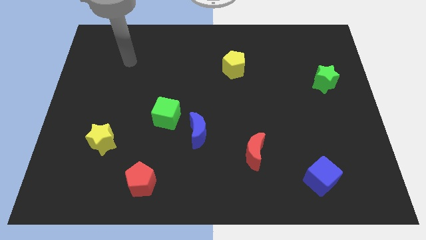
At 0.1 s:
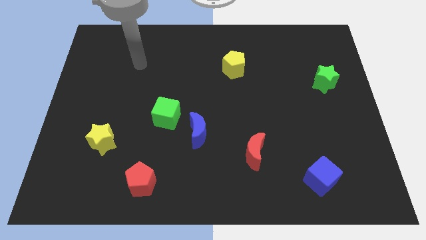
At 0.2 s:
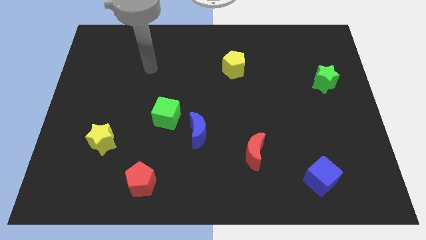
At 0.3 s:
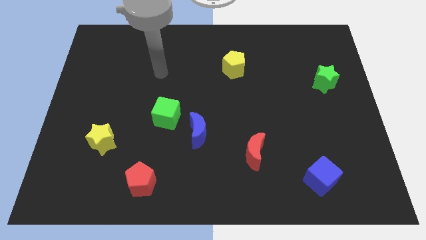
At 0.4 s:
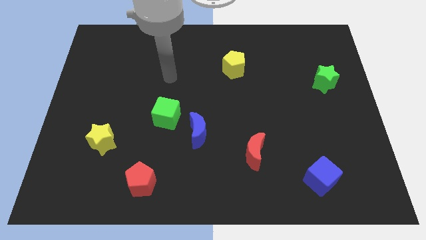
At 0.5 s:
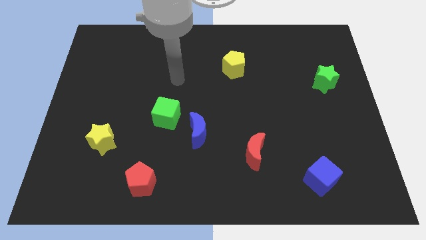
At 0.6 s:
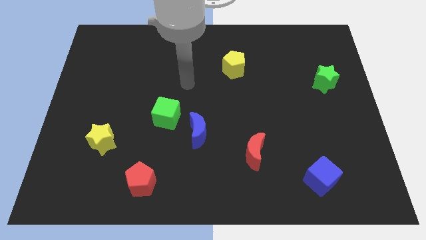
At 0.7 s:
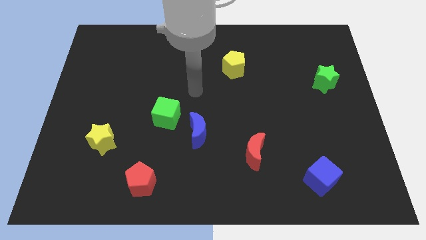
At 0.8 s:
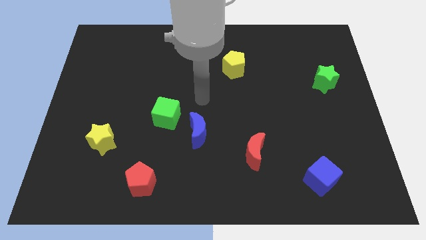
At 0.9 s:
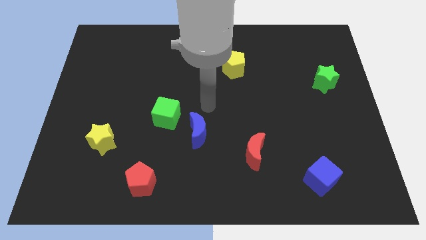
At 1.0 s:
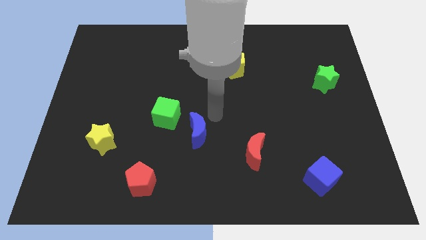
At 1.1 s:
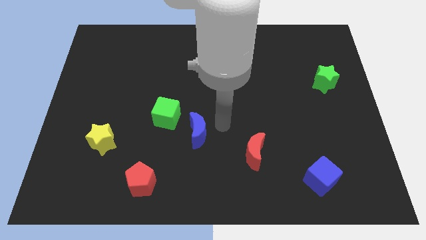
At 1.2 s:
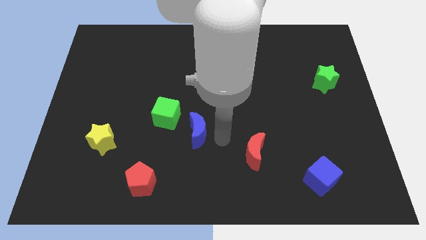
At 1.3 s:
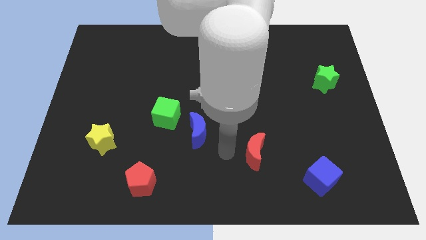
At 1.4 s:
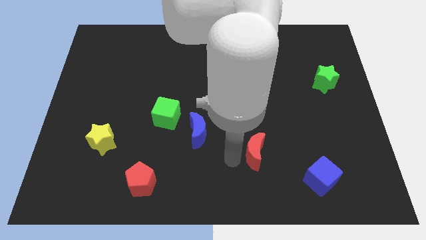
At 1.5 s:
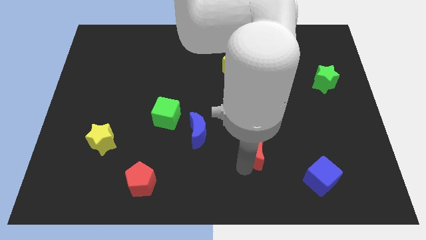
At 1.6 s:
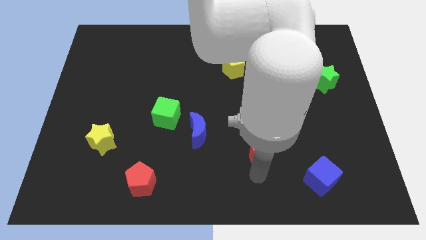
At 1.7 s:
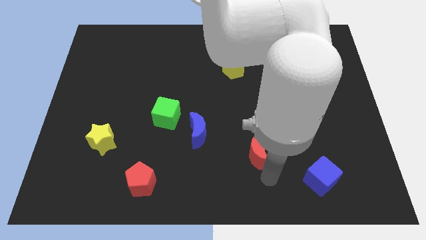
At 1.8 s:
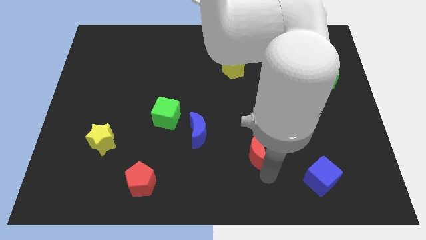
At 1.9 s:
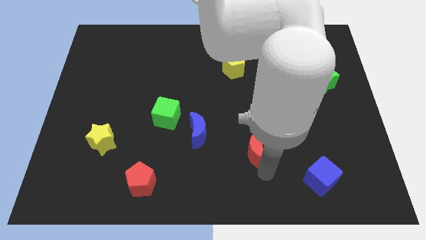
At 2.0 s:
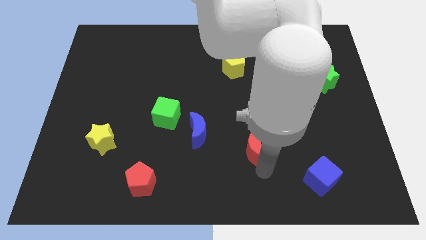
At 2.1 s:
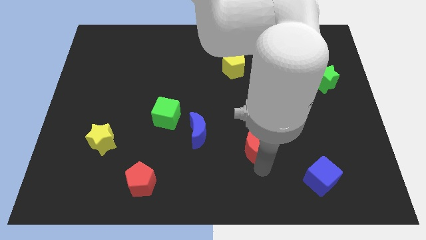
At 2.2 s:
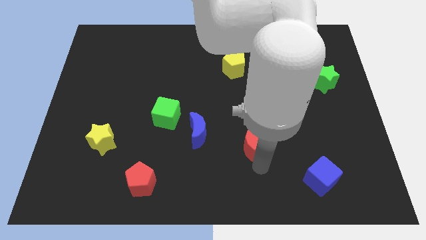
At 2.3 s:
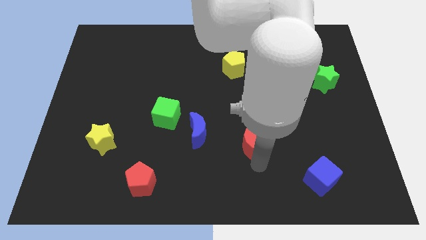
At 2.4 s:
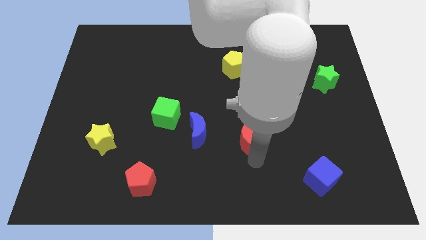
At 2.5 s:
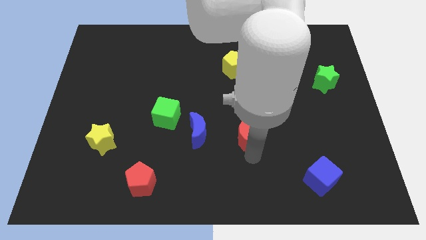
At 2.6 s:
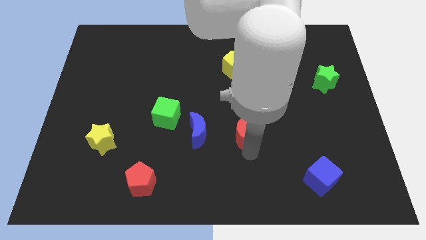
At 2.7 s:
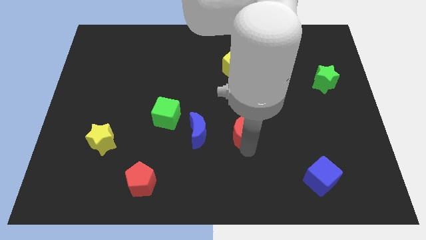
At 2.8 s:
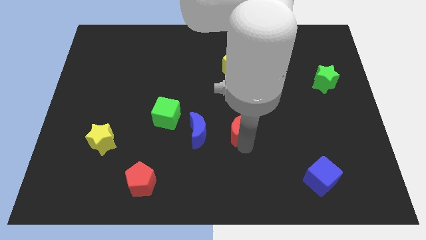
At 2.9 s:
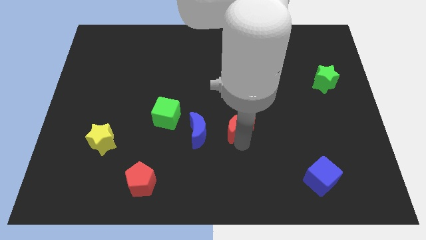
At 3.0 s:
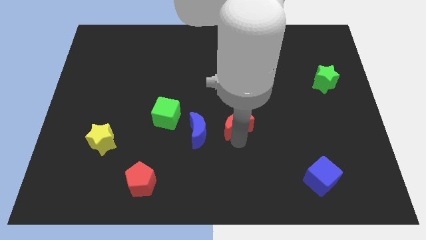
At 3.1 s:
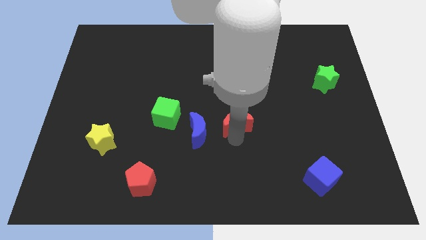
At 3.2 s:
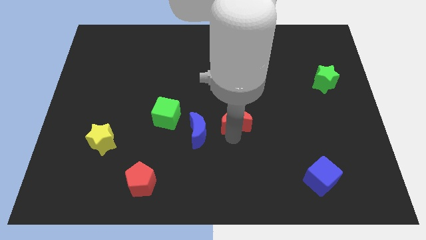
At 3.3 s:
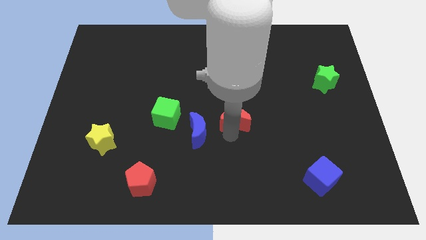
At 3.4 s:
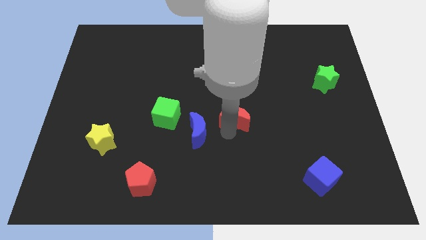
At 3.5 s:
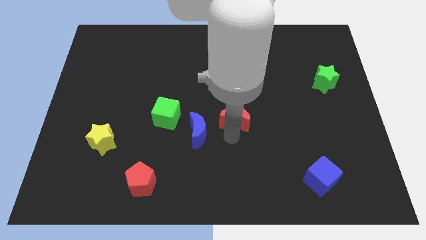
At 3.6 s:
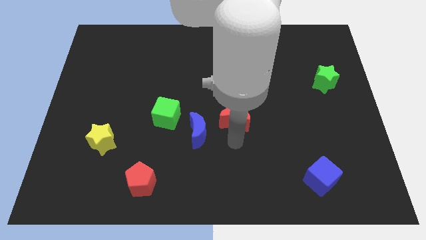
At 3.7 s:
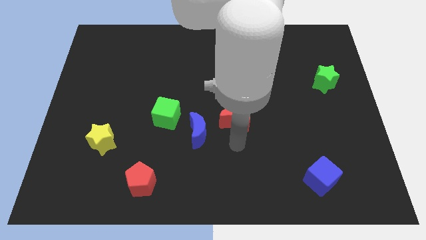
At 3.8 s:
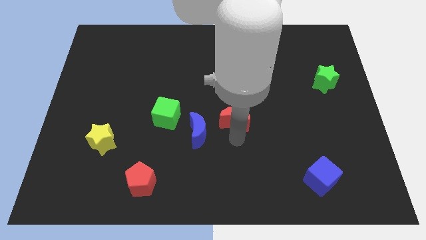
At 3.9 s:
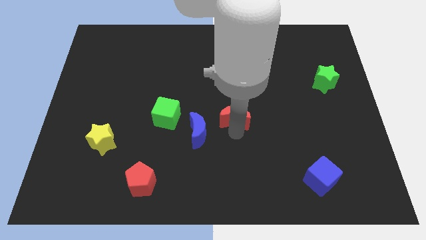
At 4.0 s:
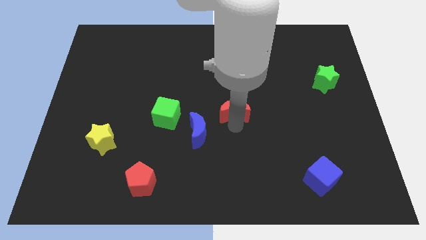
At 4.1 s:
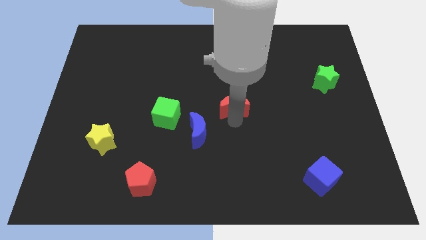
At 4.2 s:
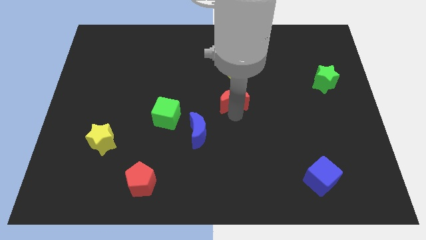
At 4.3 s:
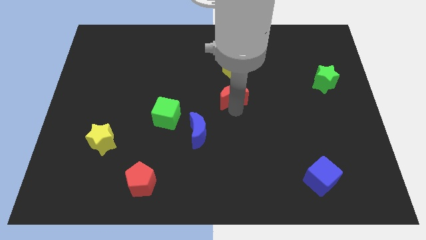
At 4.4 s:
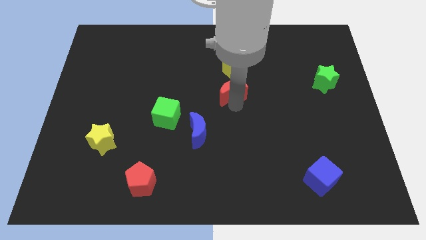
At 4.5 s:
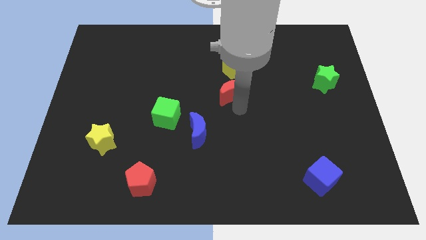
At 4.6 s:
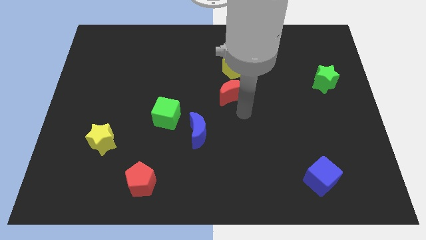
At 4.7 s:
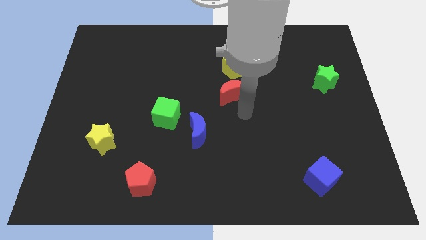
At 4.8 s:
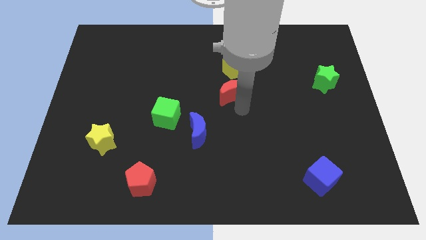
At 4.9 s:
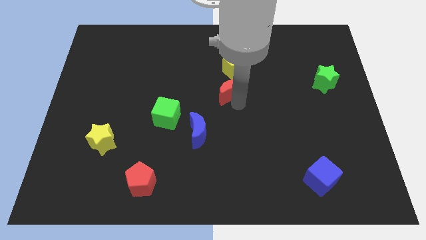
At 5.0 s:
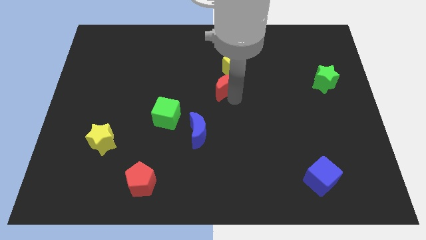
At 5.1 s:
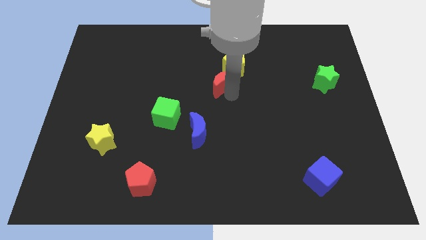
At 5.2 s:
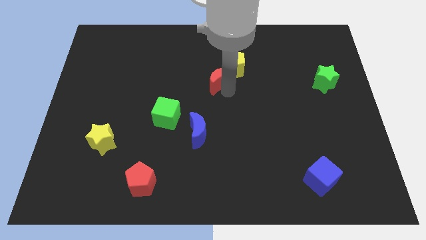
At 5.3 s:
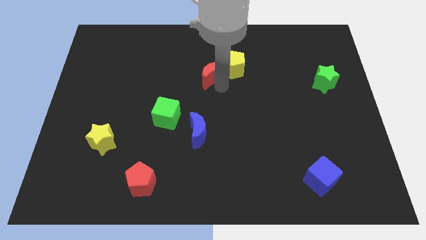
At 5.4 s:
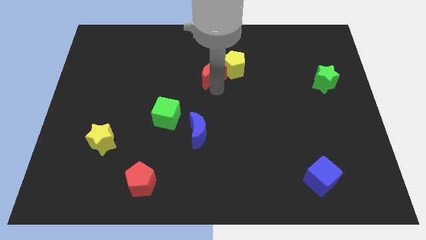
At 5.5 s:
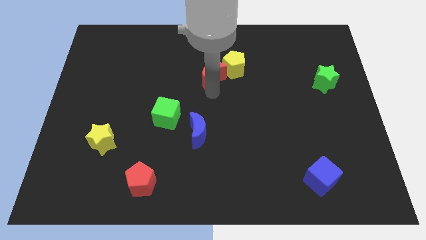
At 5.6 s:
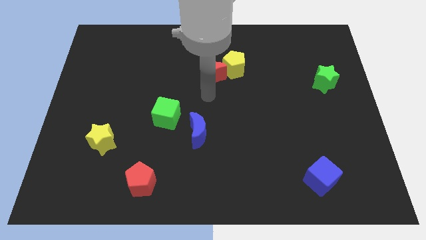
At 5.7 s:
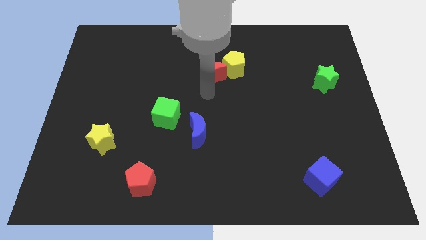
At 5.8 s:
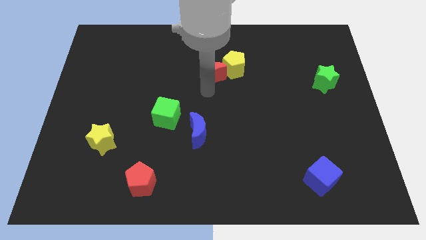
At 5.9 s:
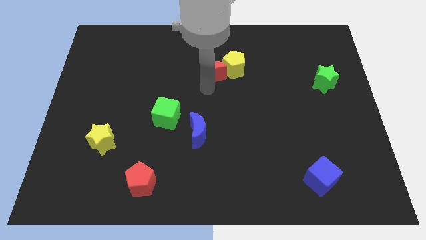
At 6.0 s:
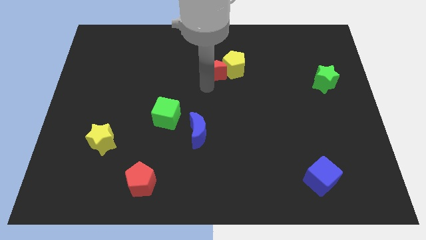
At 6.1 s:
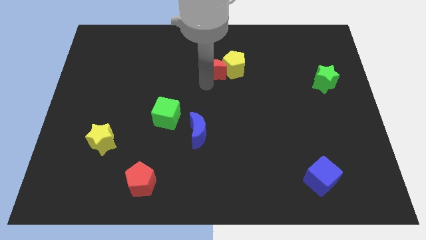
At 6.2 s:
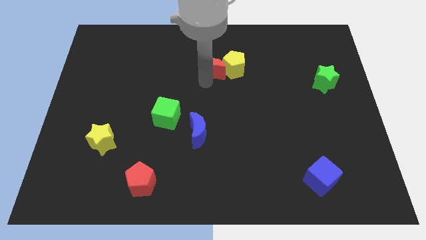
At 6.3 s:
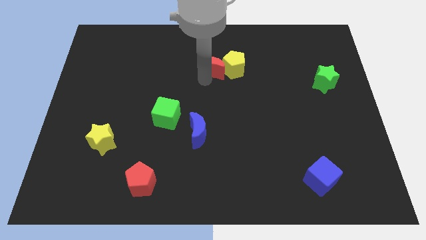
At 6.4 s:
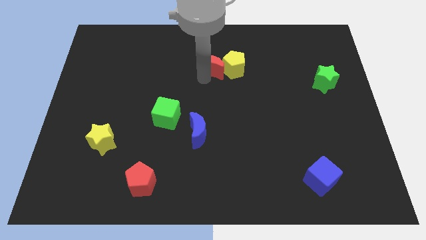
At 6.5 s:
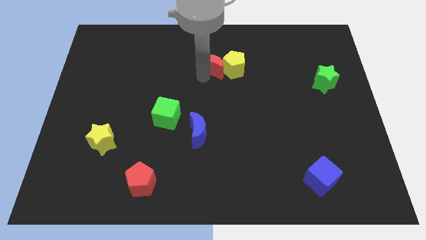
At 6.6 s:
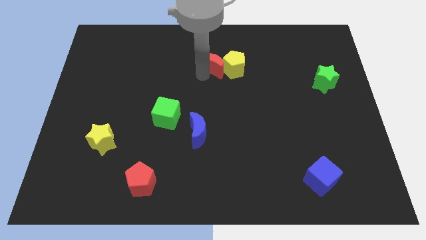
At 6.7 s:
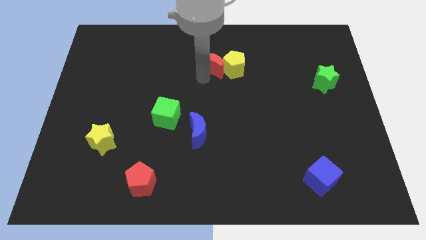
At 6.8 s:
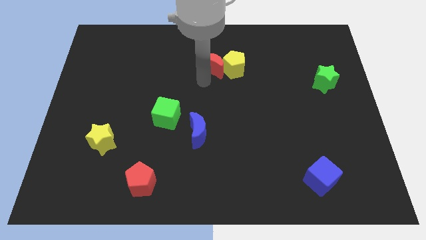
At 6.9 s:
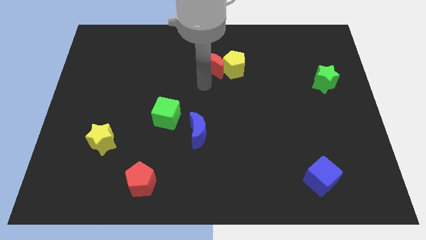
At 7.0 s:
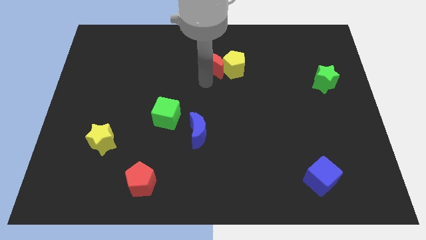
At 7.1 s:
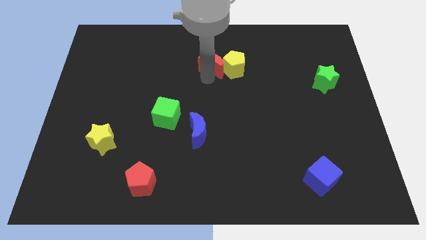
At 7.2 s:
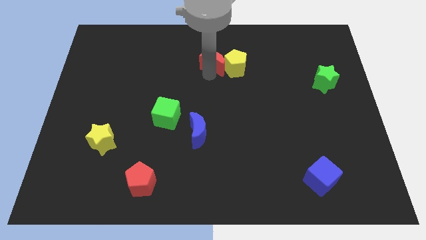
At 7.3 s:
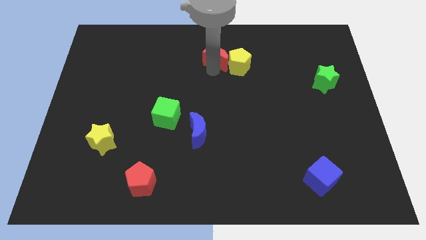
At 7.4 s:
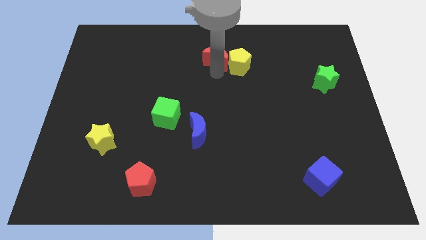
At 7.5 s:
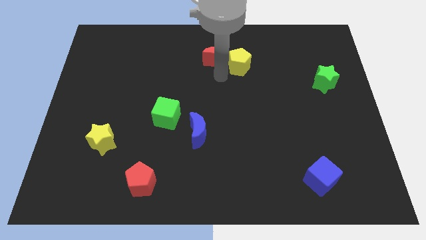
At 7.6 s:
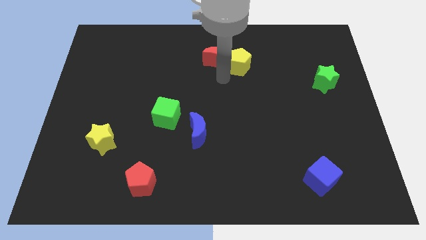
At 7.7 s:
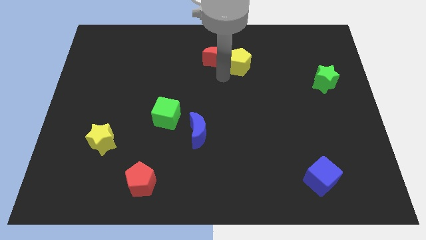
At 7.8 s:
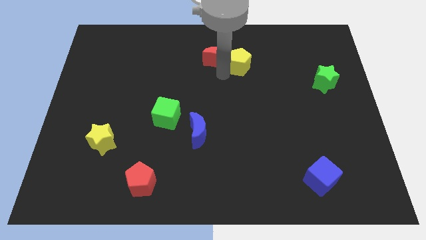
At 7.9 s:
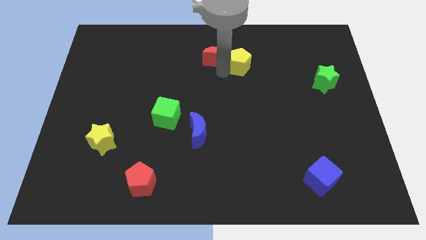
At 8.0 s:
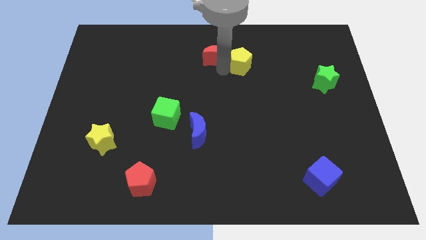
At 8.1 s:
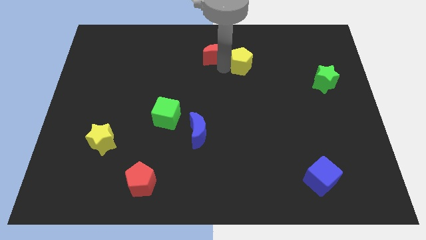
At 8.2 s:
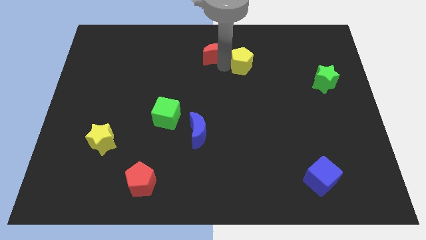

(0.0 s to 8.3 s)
move the red moon to the top side
